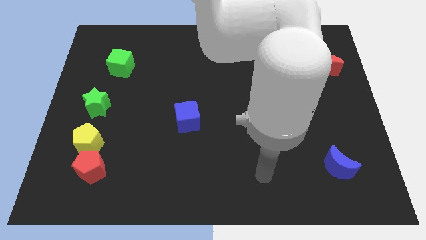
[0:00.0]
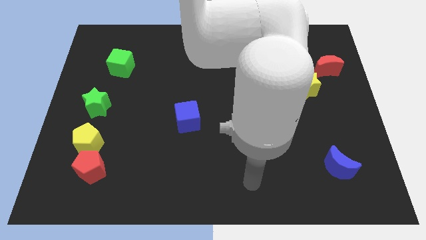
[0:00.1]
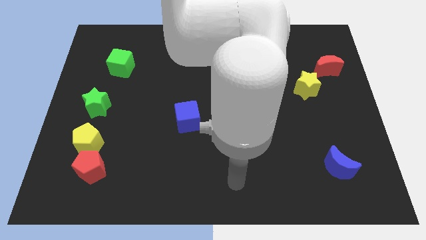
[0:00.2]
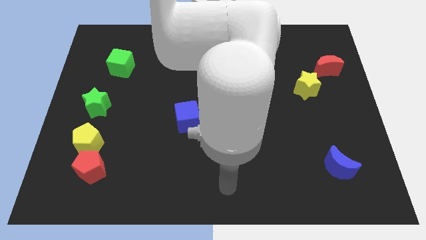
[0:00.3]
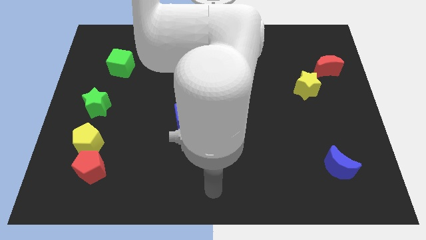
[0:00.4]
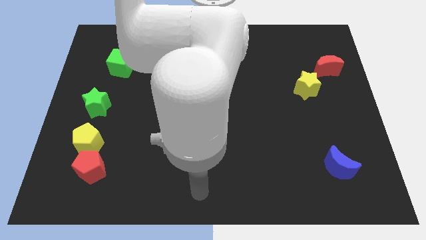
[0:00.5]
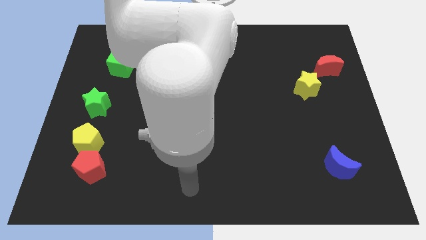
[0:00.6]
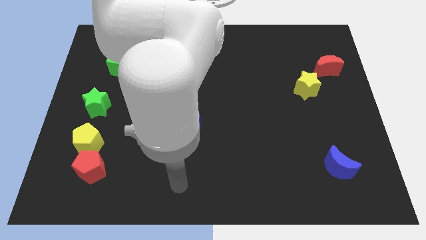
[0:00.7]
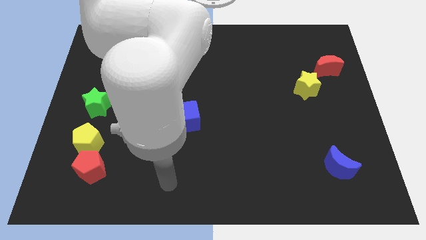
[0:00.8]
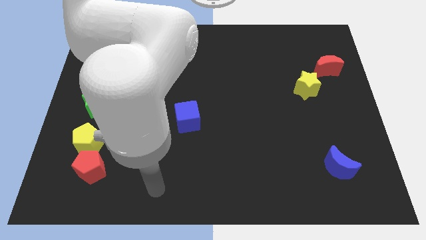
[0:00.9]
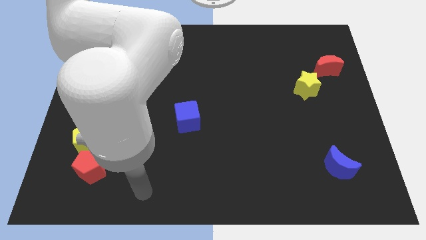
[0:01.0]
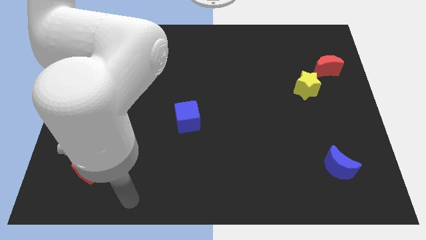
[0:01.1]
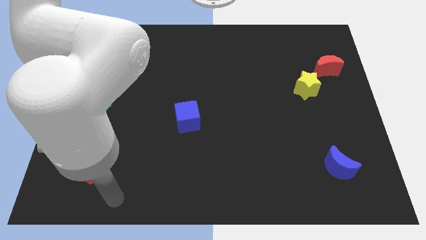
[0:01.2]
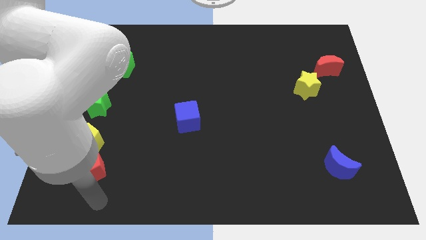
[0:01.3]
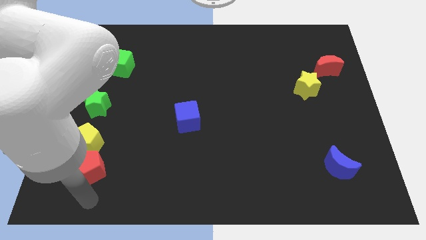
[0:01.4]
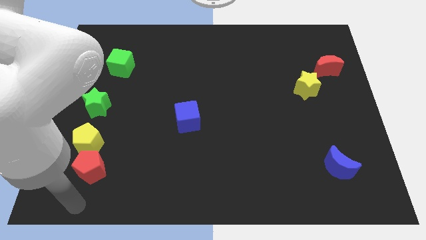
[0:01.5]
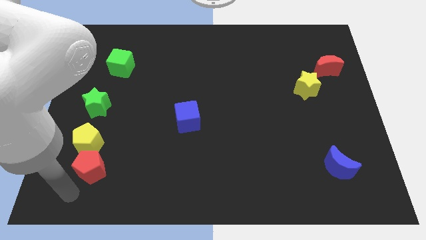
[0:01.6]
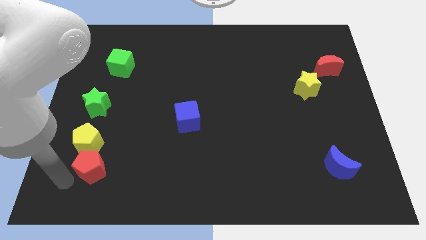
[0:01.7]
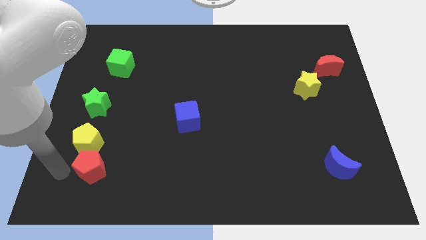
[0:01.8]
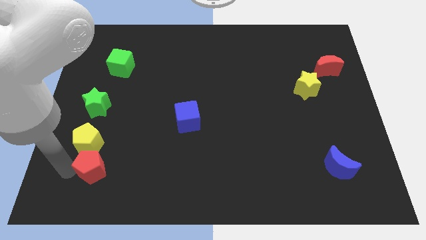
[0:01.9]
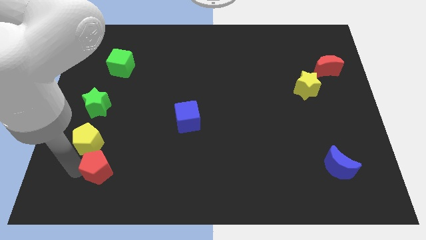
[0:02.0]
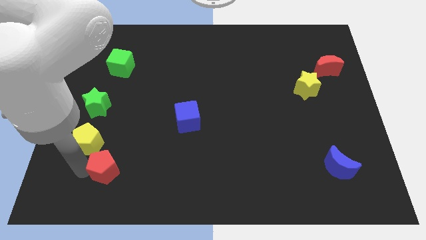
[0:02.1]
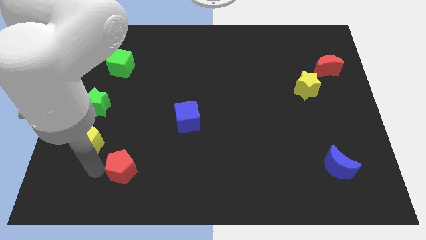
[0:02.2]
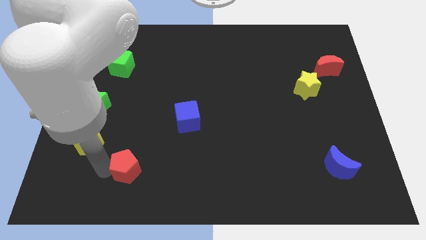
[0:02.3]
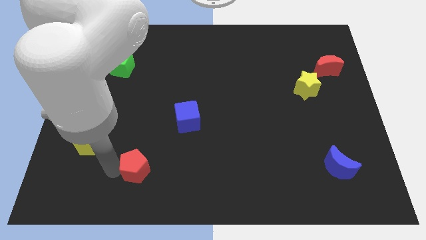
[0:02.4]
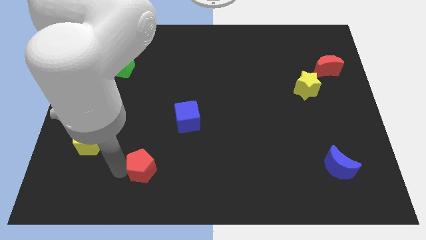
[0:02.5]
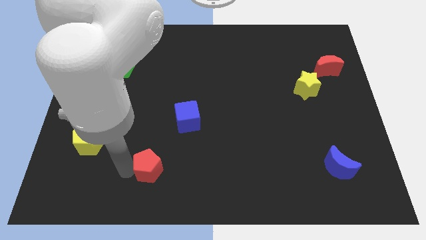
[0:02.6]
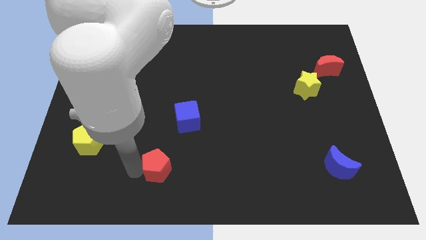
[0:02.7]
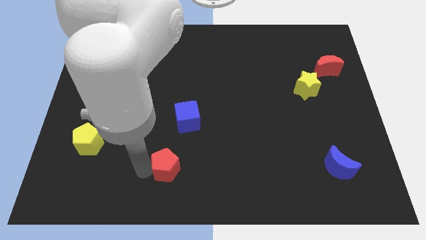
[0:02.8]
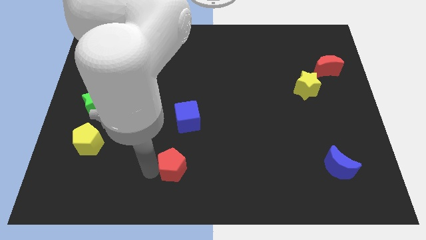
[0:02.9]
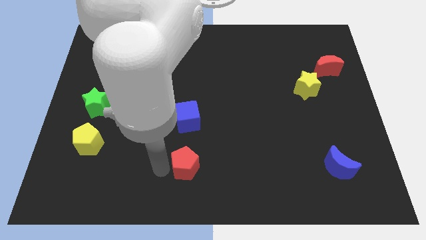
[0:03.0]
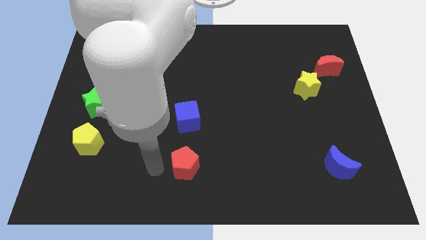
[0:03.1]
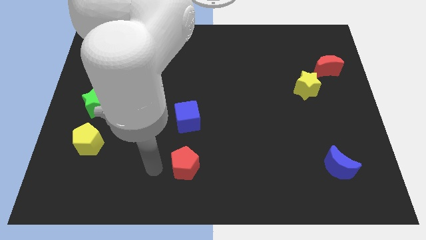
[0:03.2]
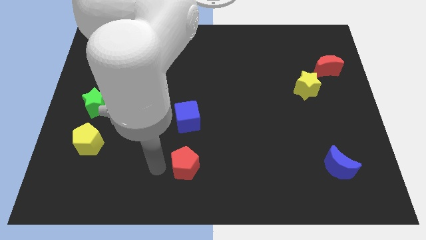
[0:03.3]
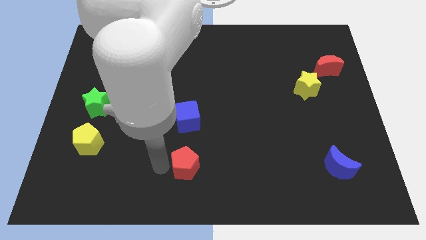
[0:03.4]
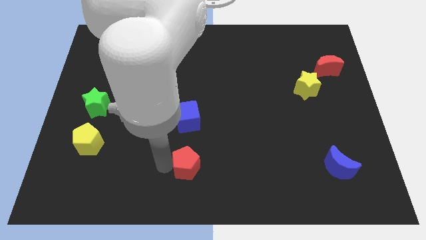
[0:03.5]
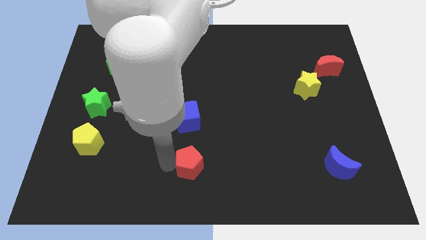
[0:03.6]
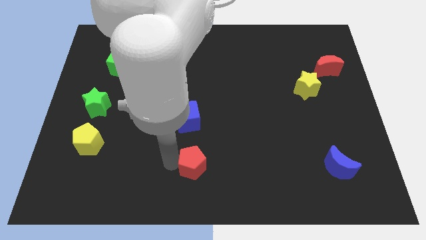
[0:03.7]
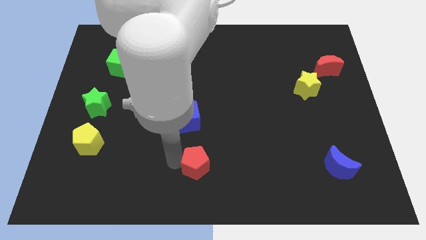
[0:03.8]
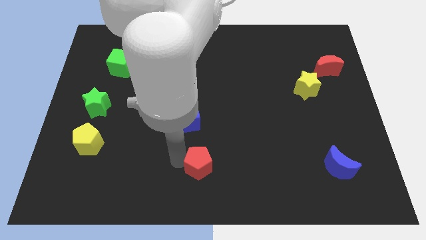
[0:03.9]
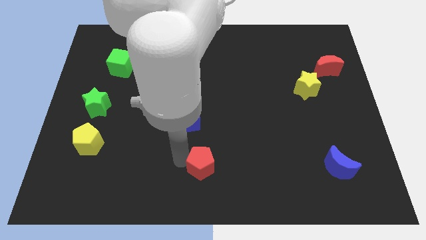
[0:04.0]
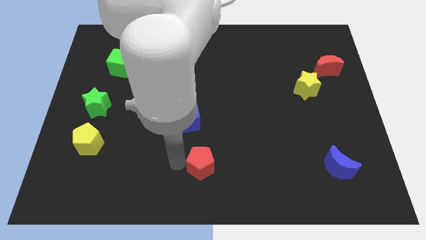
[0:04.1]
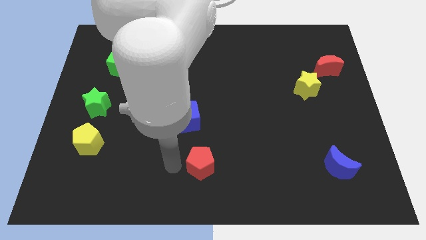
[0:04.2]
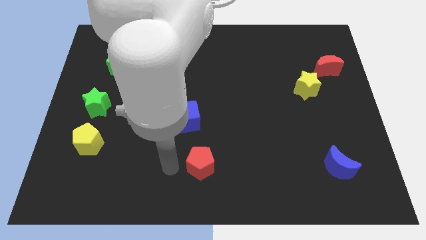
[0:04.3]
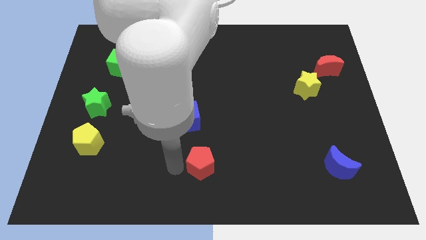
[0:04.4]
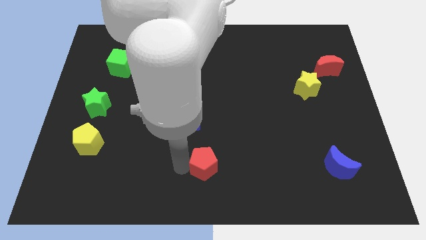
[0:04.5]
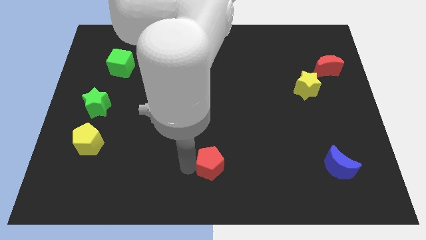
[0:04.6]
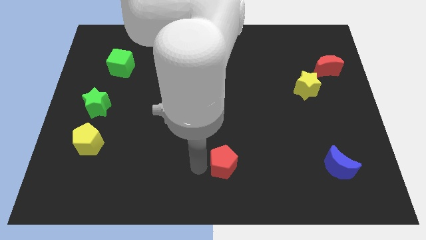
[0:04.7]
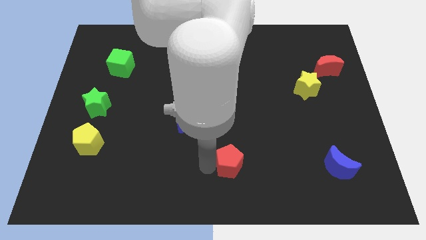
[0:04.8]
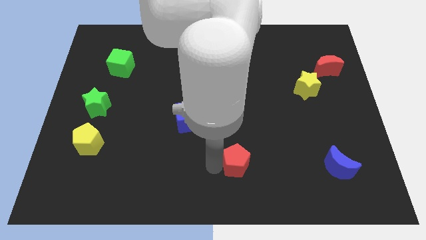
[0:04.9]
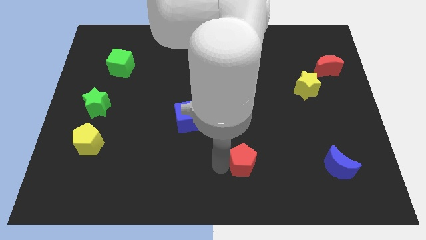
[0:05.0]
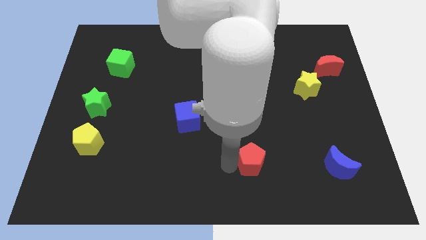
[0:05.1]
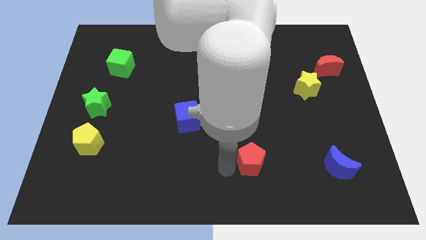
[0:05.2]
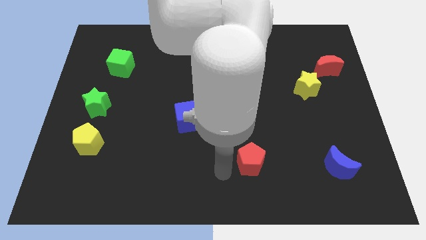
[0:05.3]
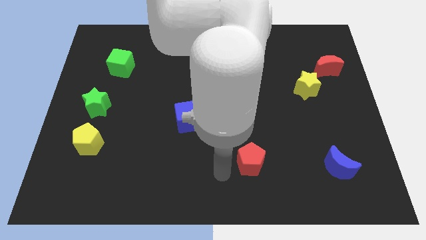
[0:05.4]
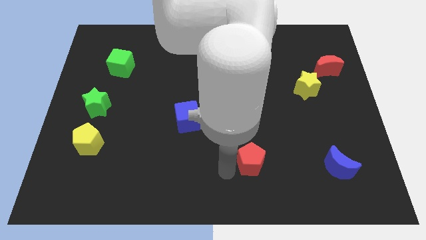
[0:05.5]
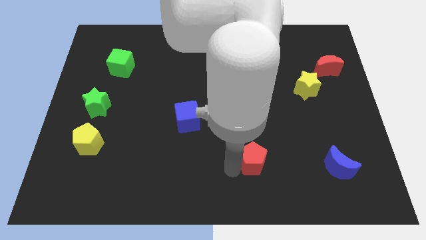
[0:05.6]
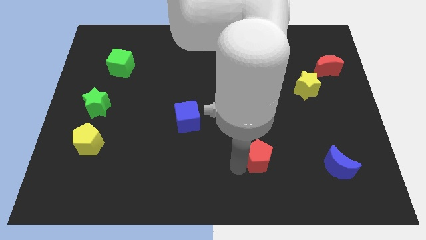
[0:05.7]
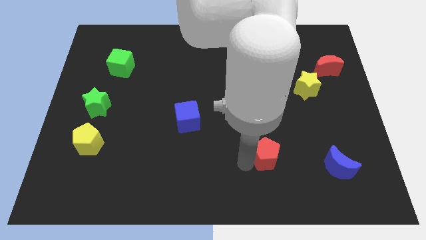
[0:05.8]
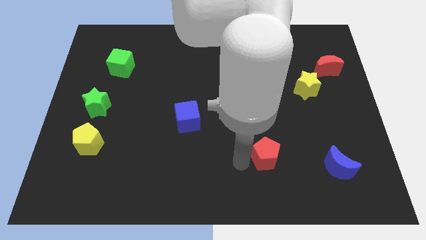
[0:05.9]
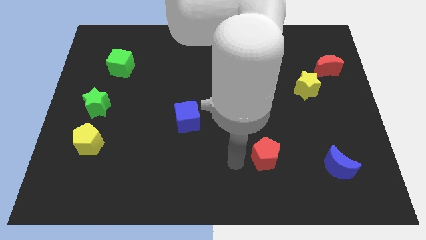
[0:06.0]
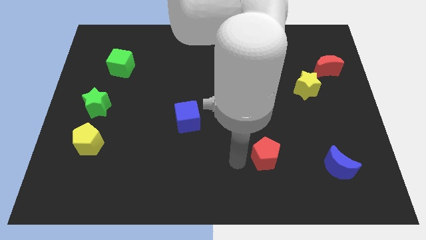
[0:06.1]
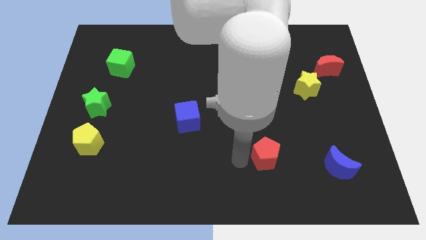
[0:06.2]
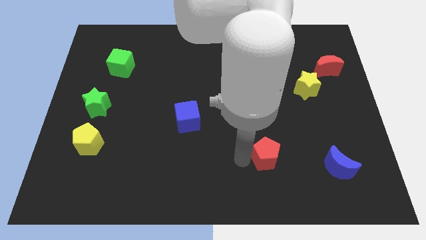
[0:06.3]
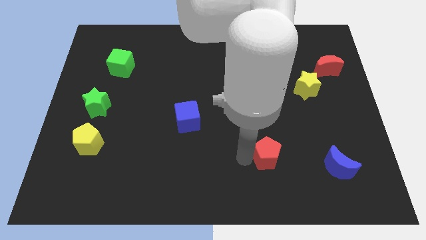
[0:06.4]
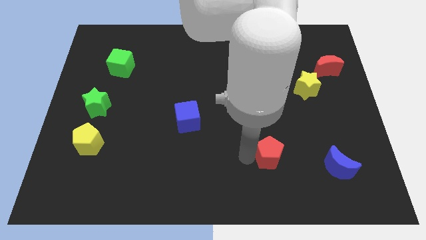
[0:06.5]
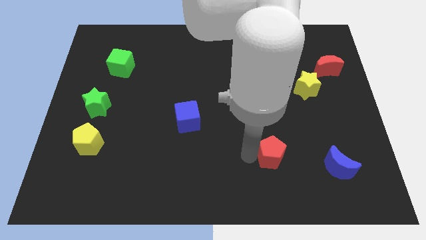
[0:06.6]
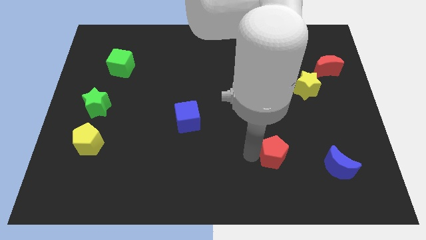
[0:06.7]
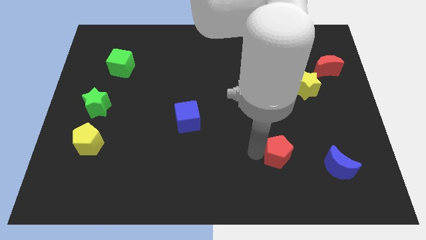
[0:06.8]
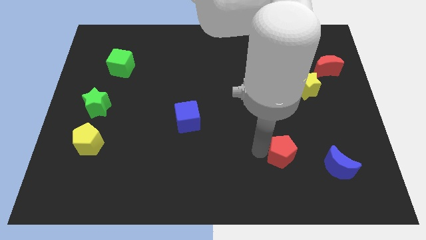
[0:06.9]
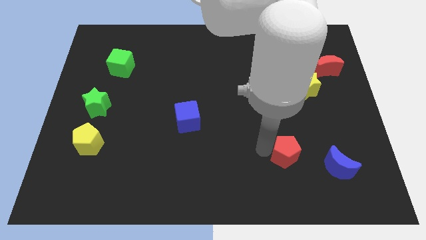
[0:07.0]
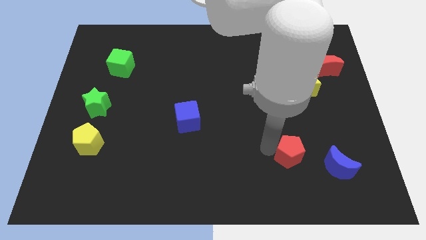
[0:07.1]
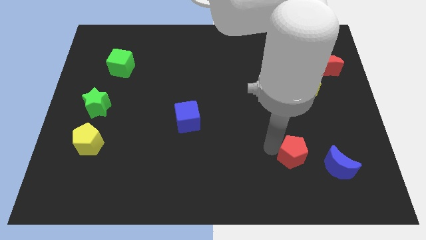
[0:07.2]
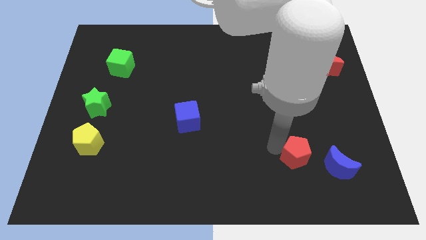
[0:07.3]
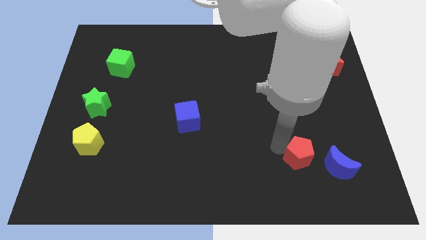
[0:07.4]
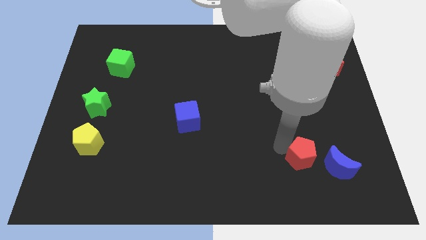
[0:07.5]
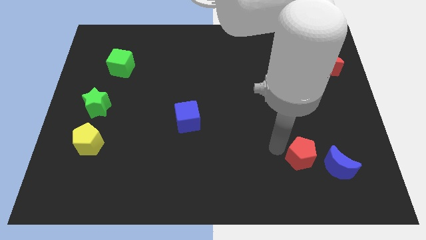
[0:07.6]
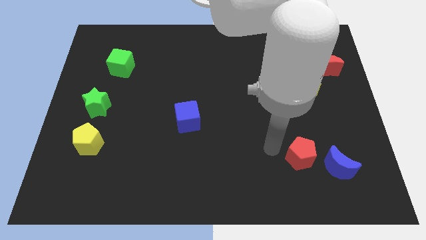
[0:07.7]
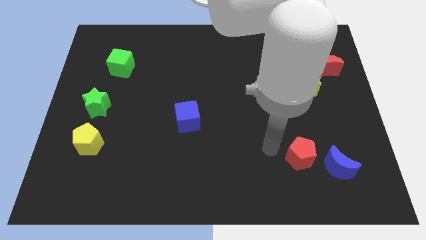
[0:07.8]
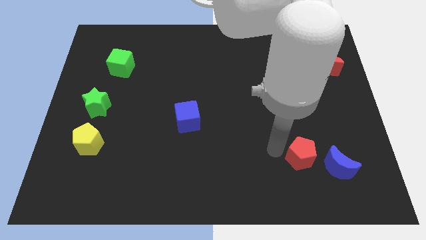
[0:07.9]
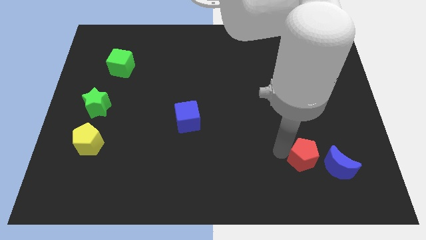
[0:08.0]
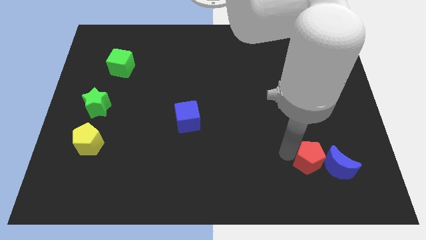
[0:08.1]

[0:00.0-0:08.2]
put the red pentagon close to the blue moon
